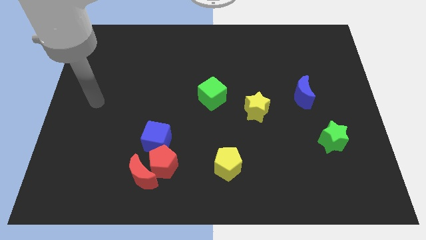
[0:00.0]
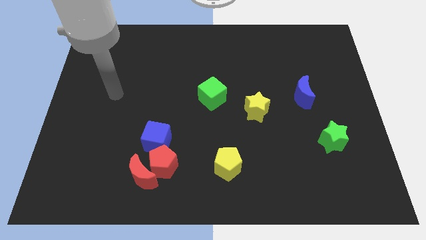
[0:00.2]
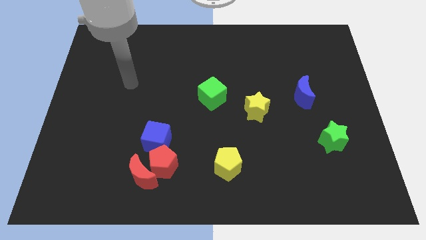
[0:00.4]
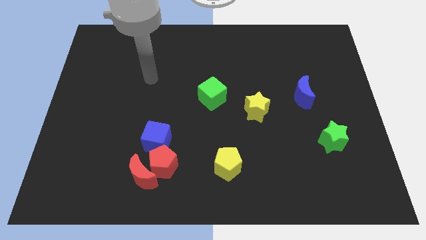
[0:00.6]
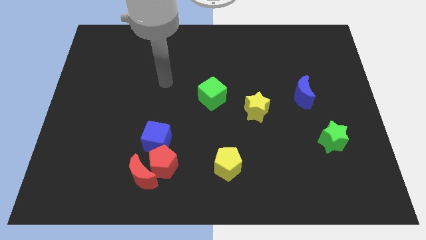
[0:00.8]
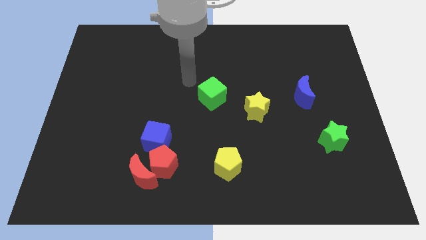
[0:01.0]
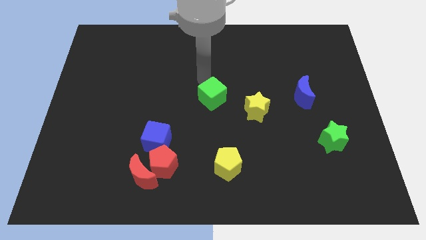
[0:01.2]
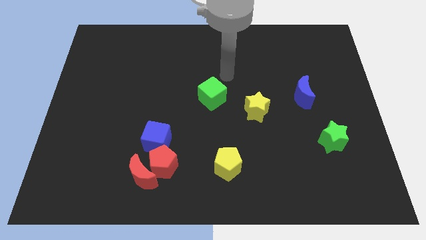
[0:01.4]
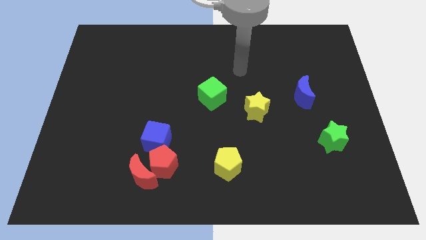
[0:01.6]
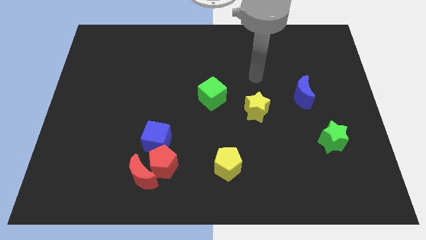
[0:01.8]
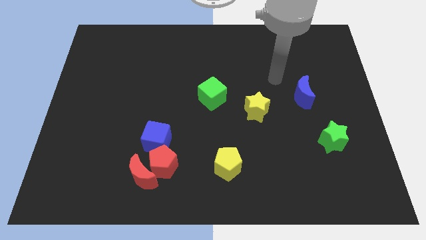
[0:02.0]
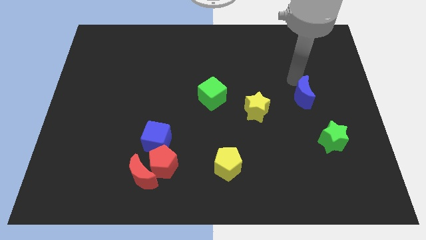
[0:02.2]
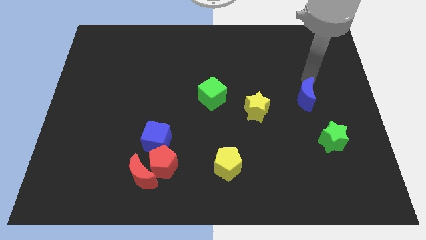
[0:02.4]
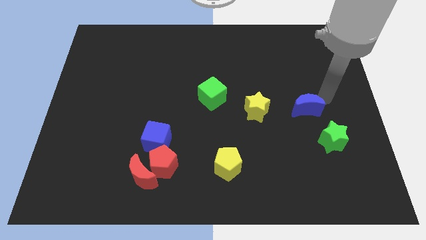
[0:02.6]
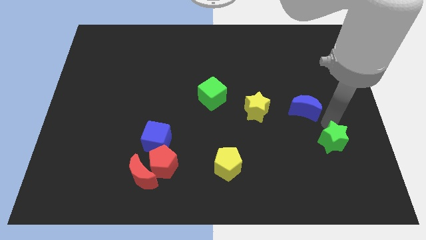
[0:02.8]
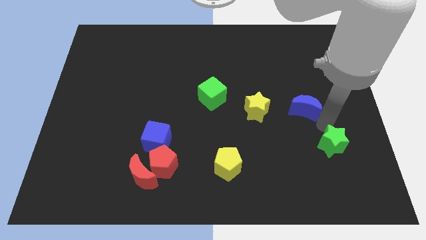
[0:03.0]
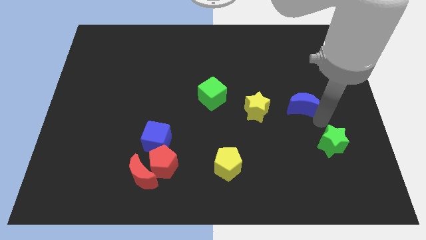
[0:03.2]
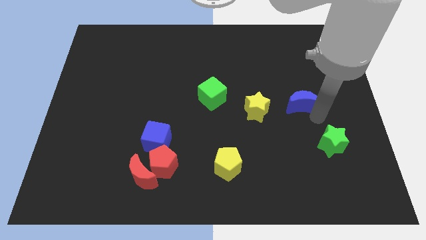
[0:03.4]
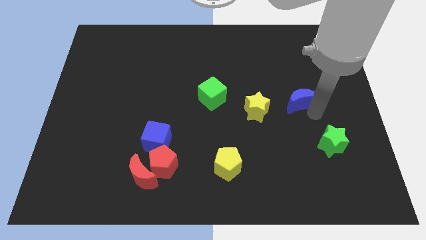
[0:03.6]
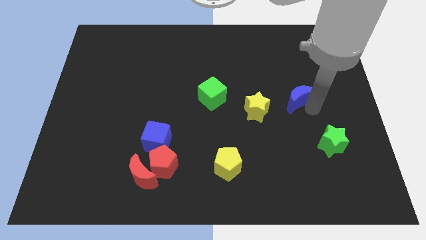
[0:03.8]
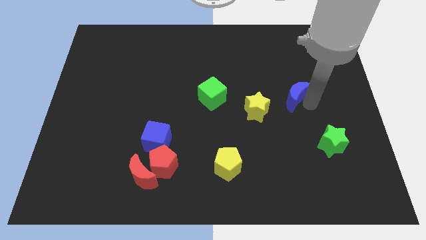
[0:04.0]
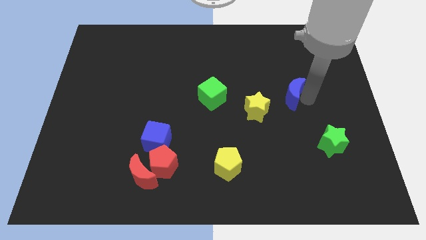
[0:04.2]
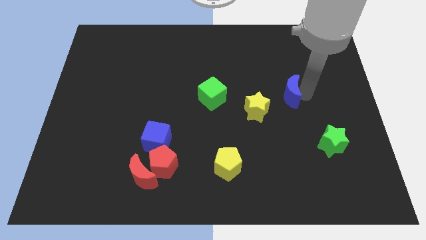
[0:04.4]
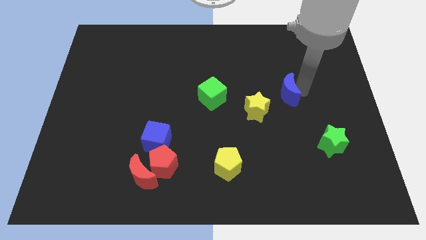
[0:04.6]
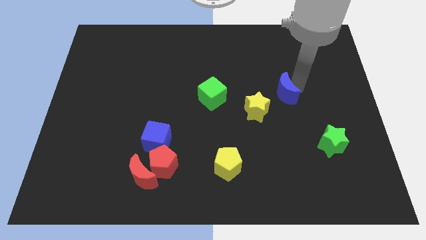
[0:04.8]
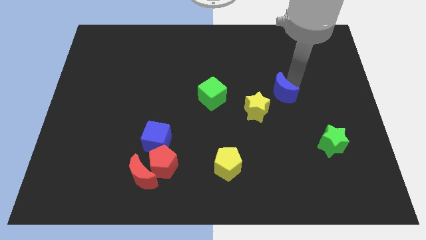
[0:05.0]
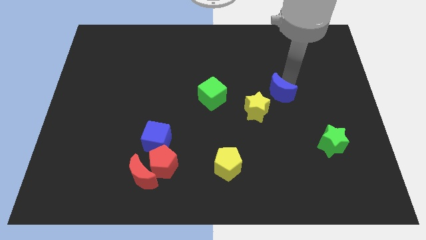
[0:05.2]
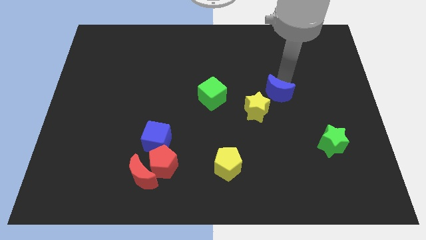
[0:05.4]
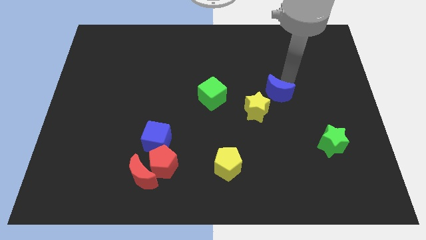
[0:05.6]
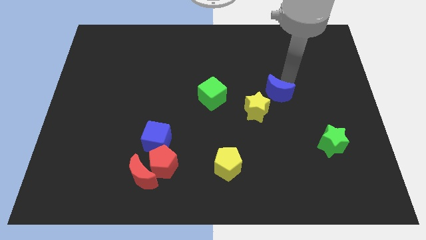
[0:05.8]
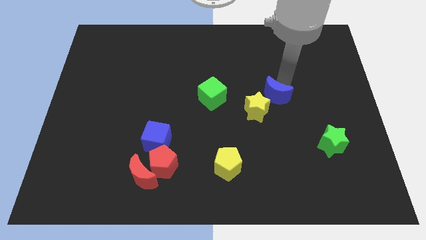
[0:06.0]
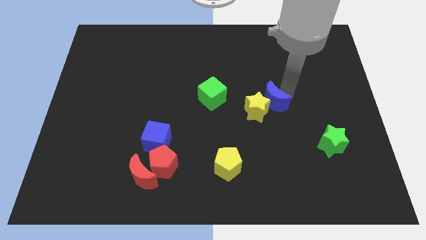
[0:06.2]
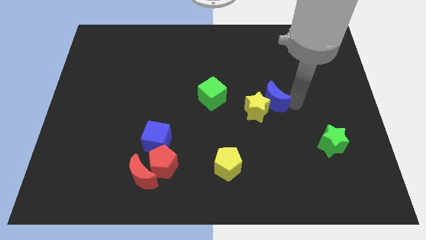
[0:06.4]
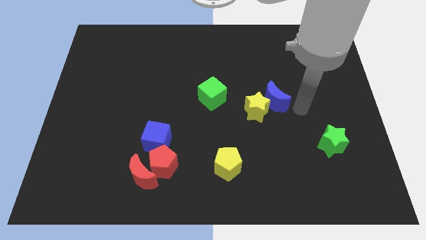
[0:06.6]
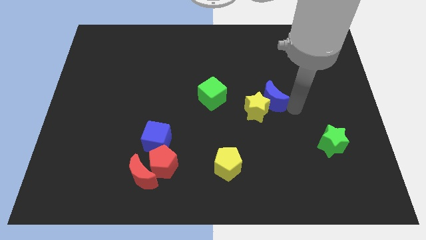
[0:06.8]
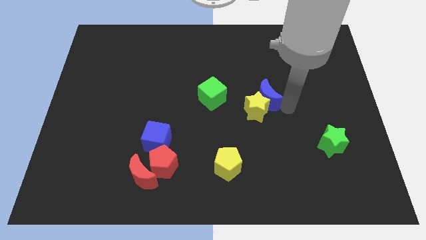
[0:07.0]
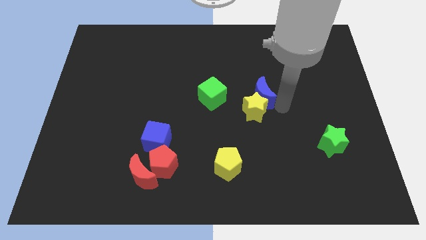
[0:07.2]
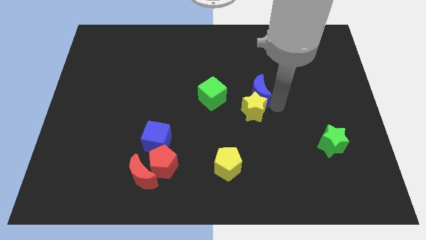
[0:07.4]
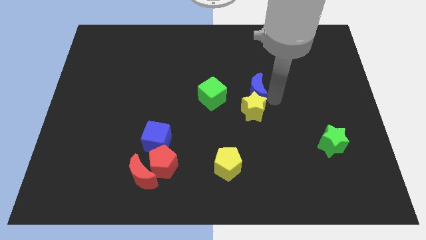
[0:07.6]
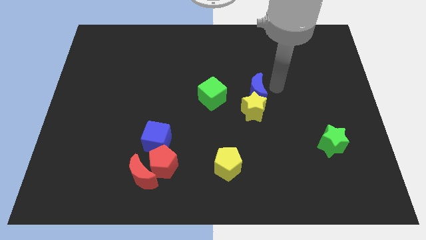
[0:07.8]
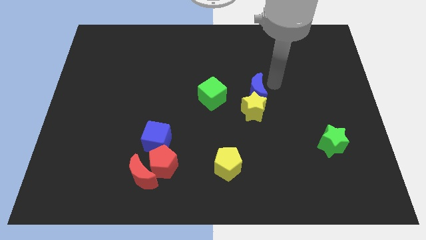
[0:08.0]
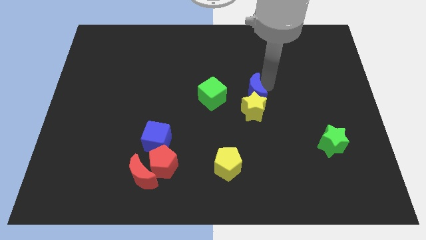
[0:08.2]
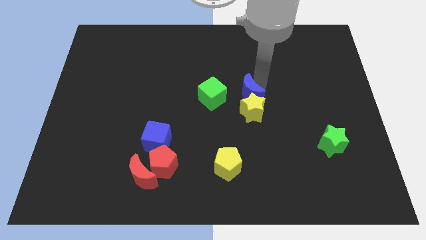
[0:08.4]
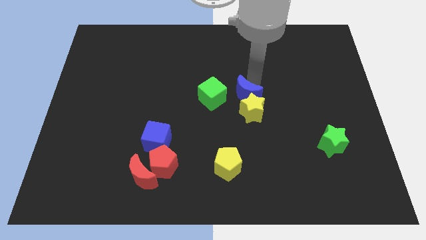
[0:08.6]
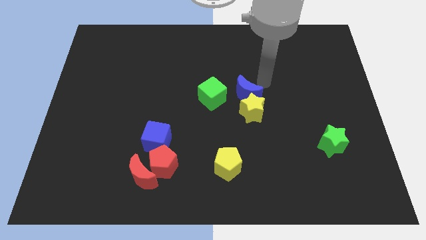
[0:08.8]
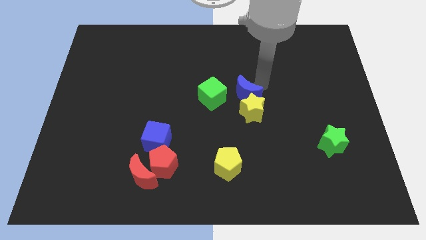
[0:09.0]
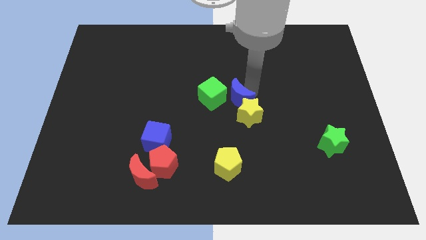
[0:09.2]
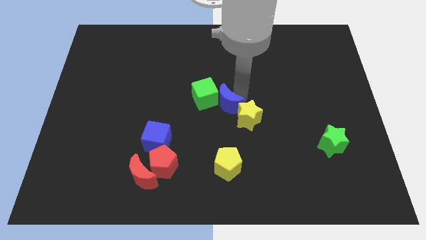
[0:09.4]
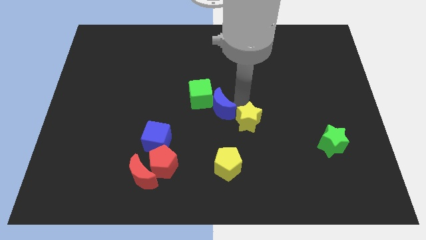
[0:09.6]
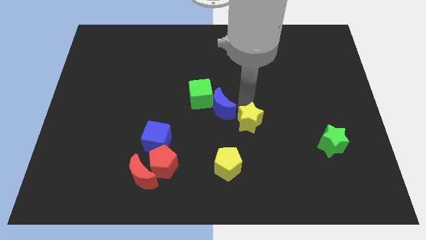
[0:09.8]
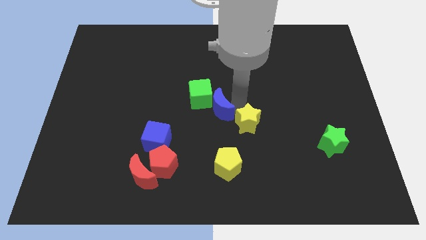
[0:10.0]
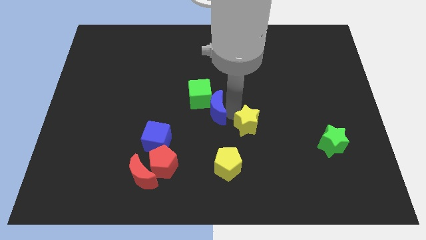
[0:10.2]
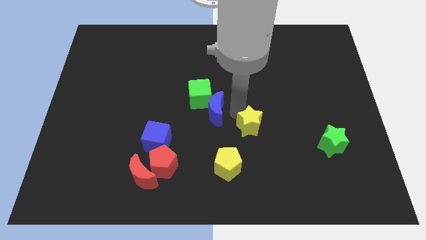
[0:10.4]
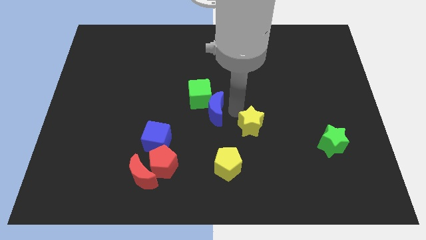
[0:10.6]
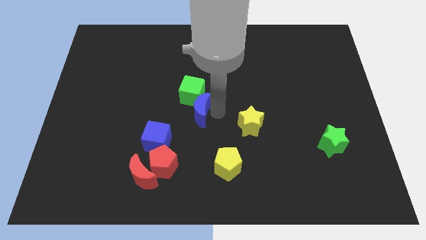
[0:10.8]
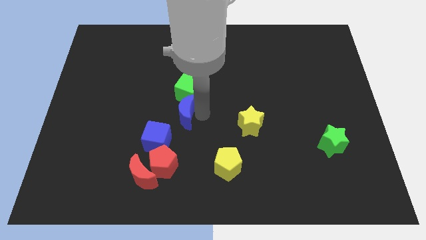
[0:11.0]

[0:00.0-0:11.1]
slide the blue moon to the bottom left side of the green cube

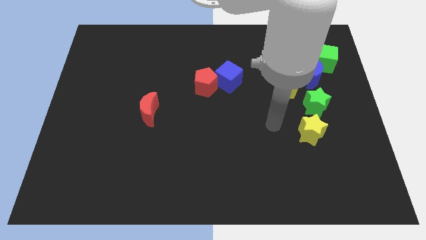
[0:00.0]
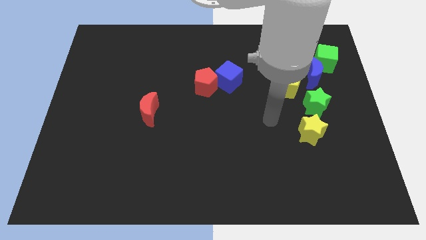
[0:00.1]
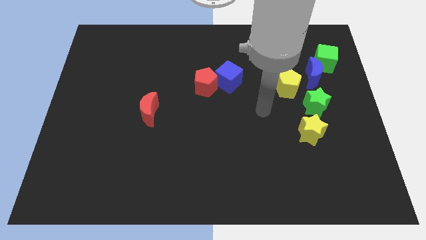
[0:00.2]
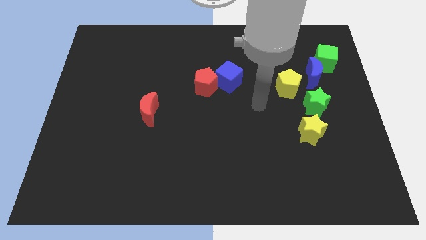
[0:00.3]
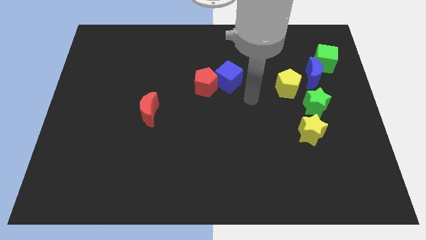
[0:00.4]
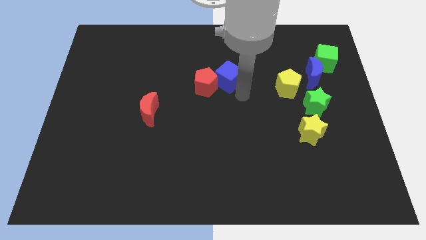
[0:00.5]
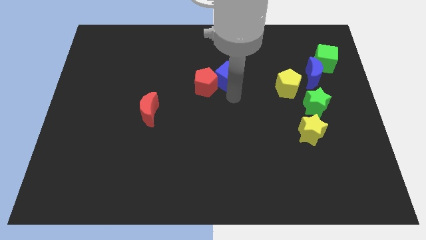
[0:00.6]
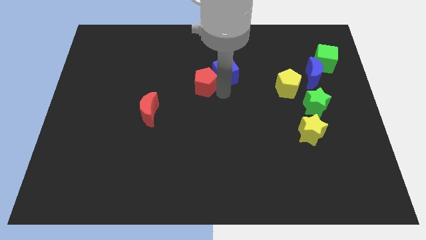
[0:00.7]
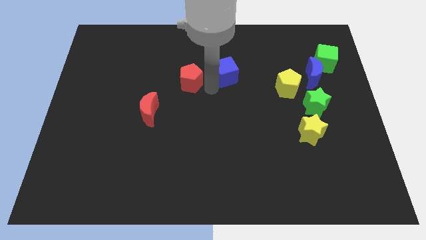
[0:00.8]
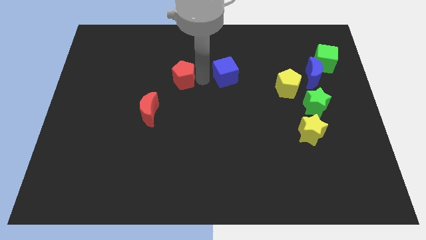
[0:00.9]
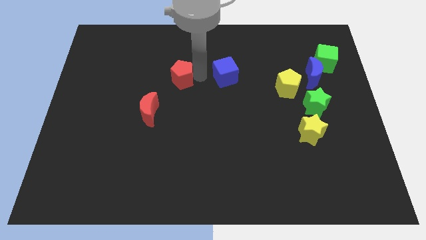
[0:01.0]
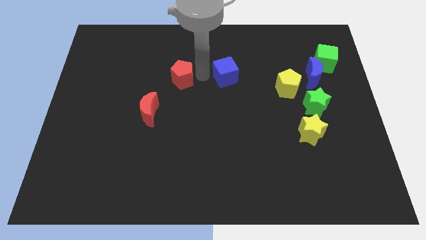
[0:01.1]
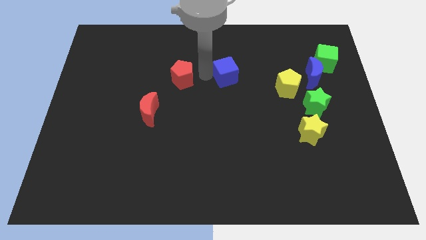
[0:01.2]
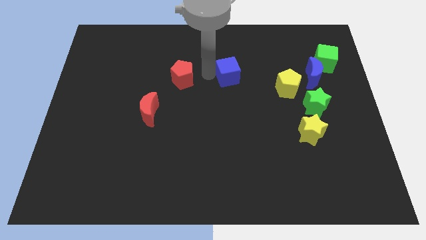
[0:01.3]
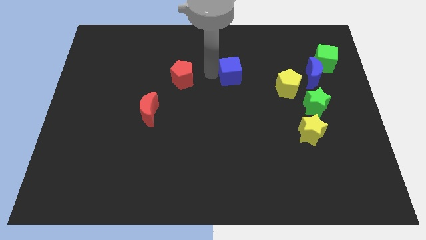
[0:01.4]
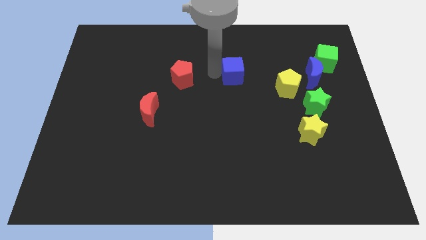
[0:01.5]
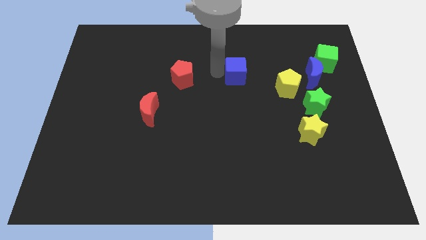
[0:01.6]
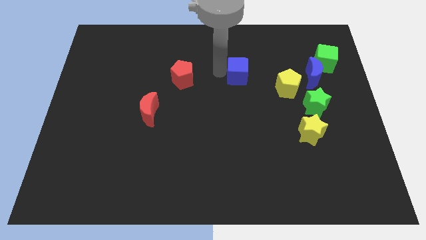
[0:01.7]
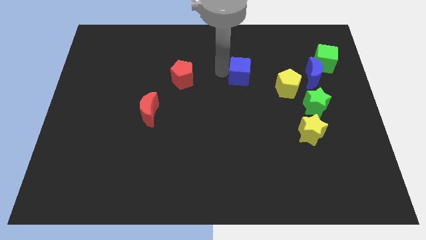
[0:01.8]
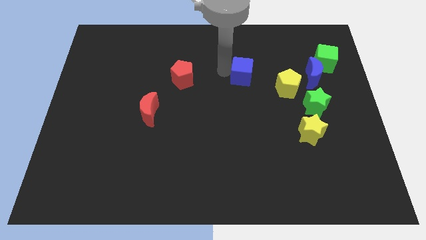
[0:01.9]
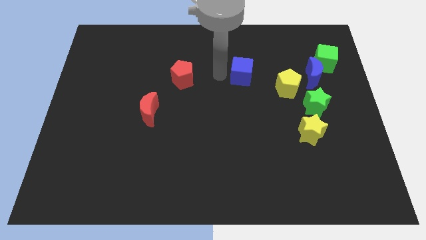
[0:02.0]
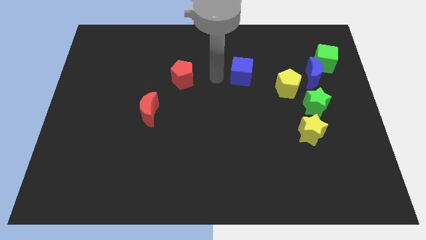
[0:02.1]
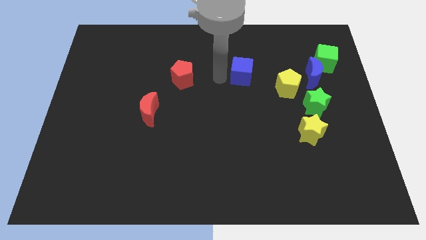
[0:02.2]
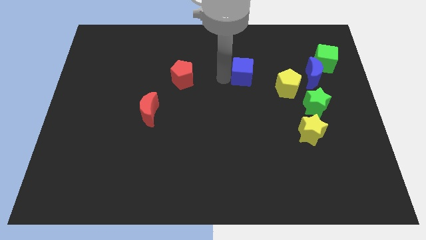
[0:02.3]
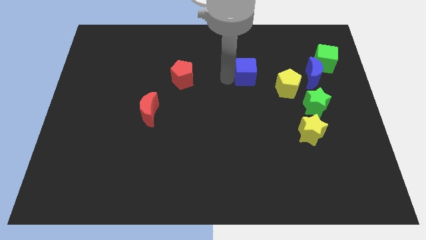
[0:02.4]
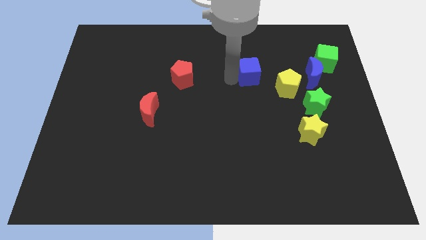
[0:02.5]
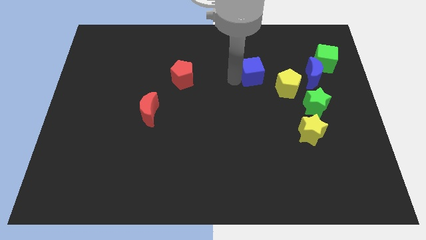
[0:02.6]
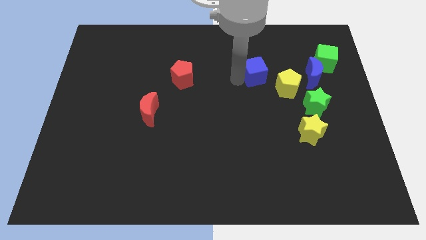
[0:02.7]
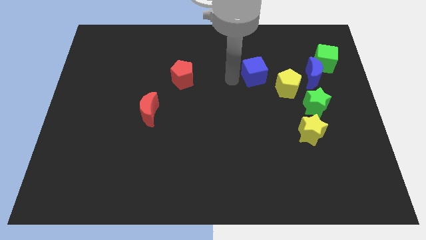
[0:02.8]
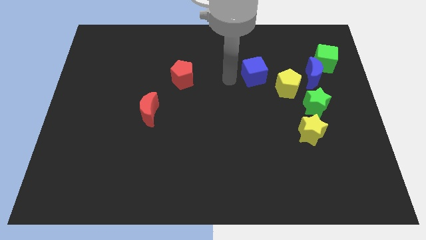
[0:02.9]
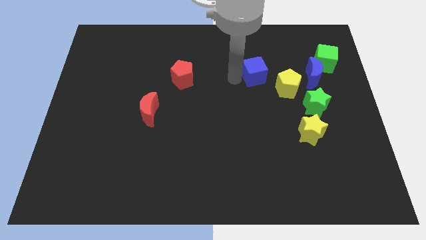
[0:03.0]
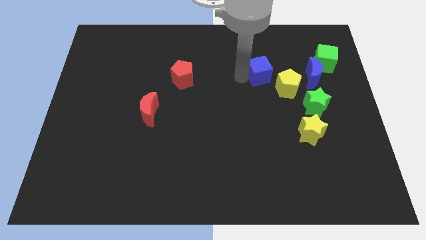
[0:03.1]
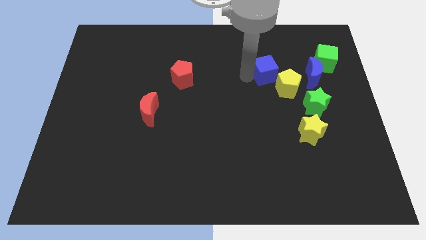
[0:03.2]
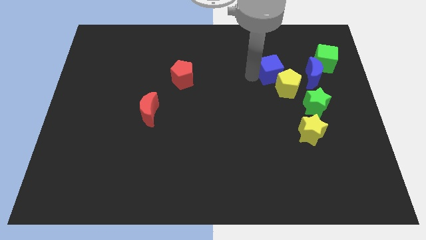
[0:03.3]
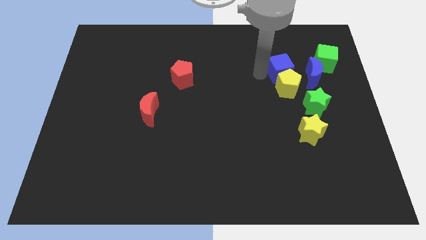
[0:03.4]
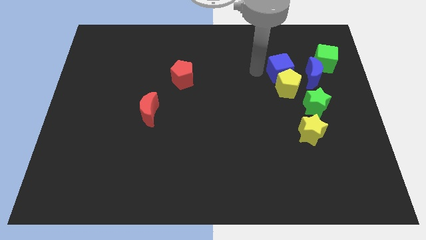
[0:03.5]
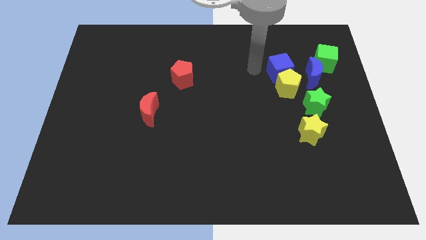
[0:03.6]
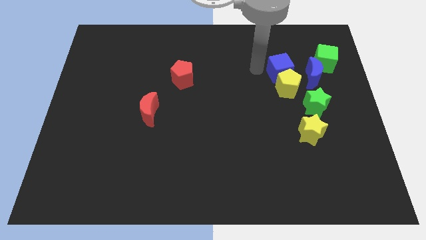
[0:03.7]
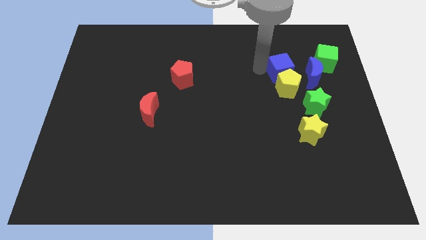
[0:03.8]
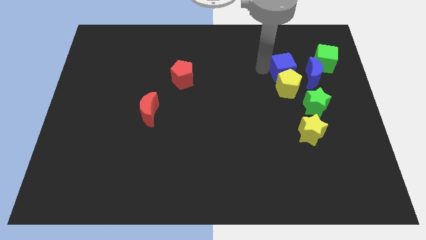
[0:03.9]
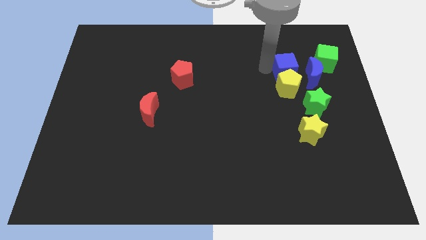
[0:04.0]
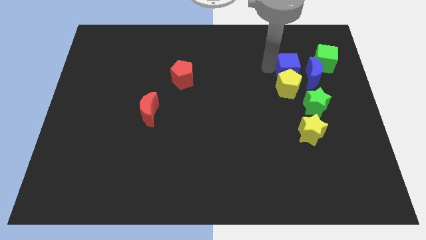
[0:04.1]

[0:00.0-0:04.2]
put the blue cube to the top of the green star
